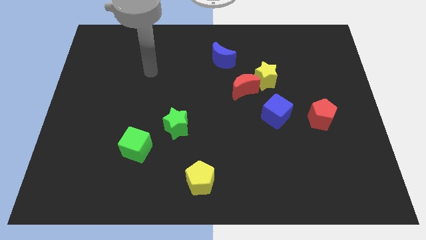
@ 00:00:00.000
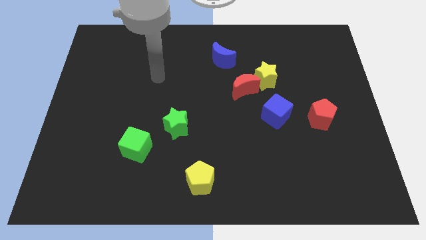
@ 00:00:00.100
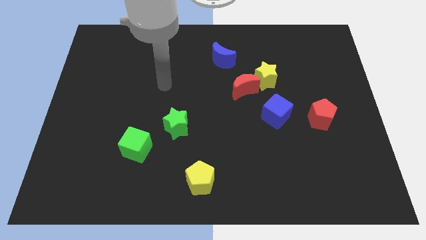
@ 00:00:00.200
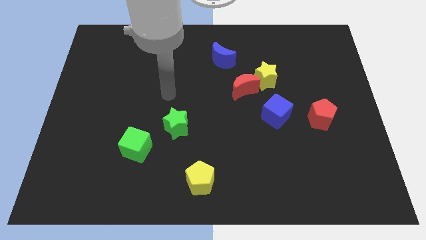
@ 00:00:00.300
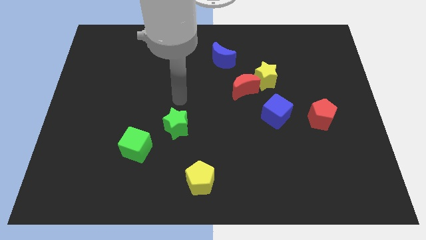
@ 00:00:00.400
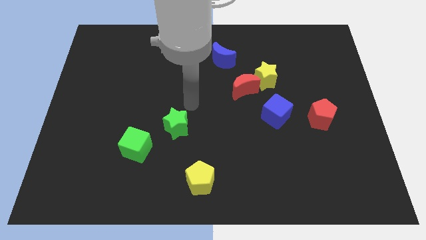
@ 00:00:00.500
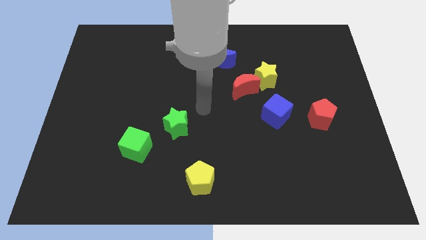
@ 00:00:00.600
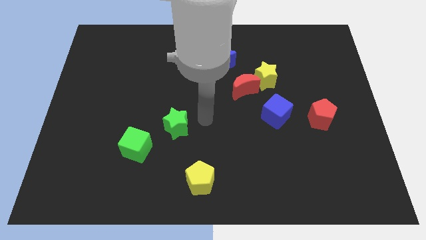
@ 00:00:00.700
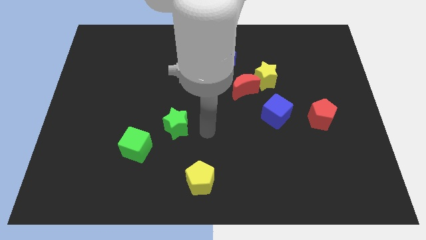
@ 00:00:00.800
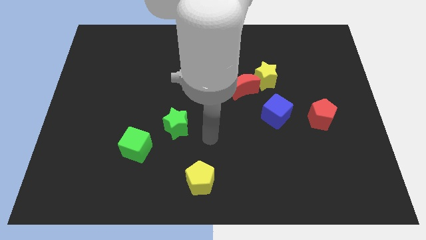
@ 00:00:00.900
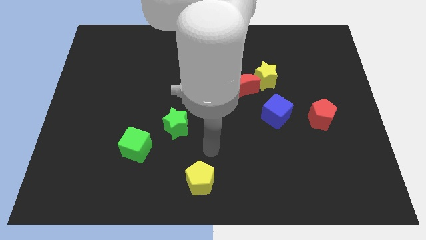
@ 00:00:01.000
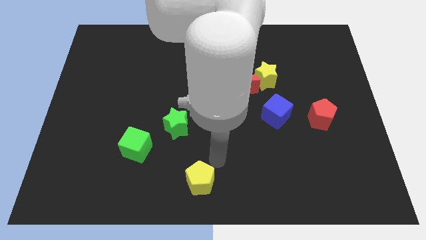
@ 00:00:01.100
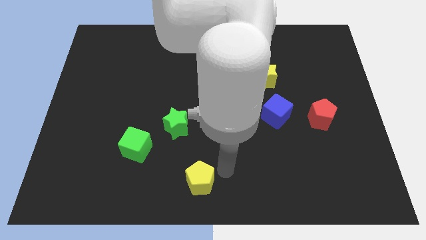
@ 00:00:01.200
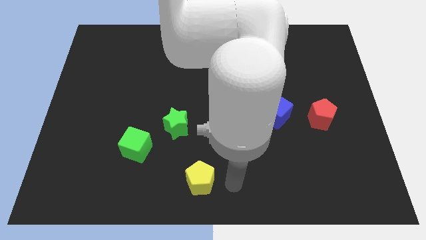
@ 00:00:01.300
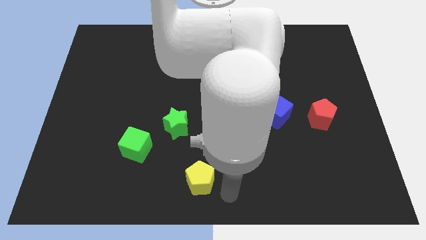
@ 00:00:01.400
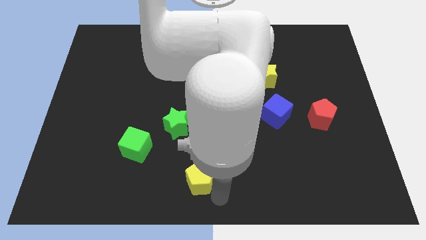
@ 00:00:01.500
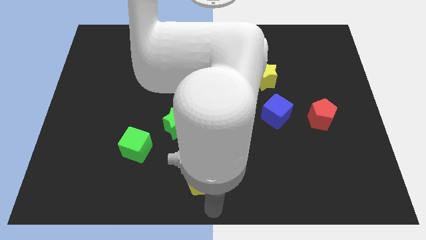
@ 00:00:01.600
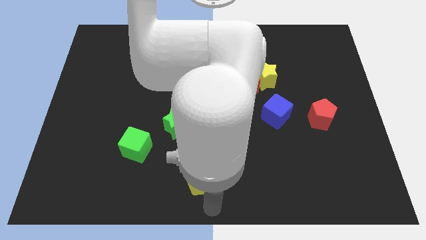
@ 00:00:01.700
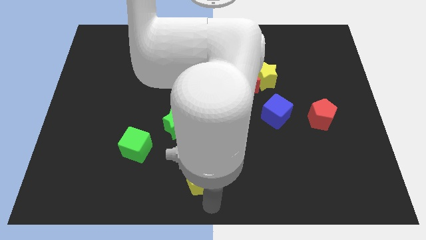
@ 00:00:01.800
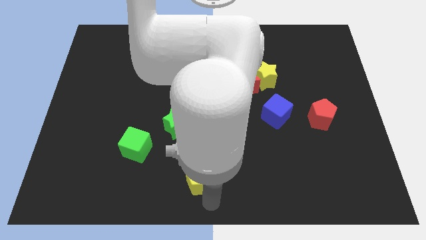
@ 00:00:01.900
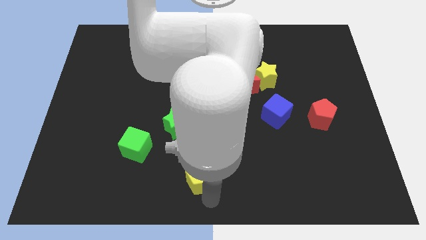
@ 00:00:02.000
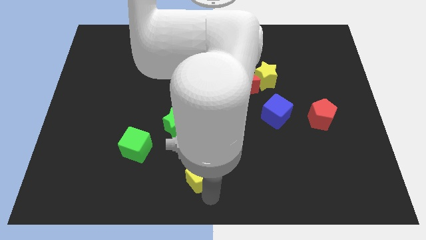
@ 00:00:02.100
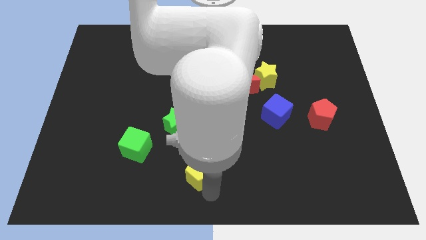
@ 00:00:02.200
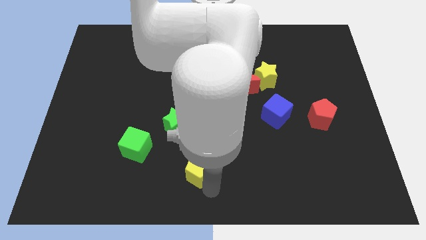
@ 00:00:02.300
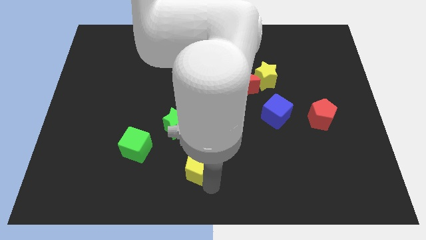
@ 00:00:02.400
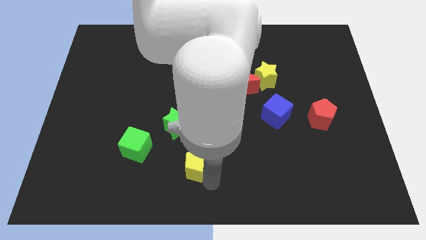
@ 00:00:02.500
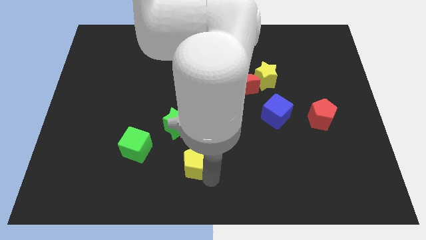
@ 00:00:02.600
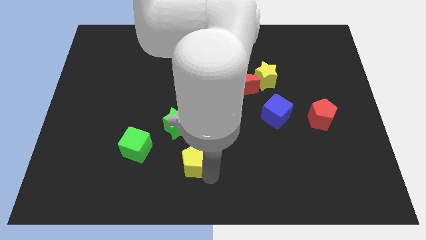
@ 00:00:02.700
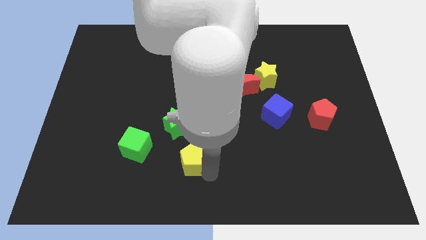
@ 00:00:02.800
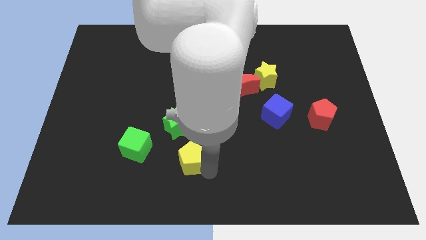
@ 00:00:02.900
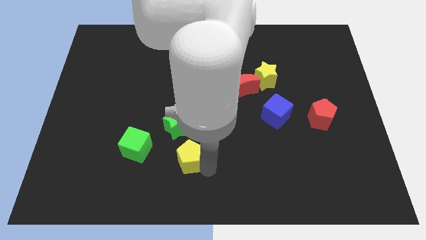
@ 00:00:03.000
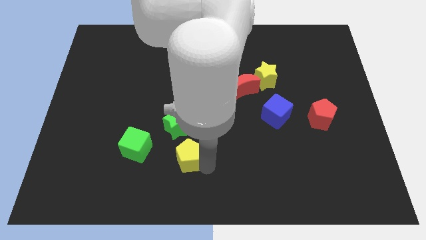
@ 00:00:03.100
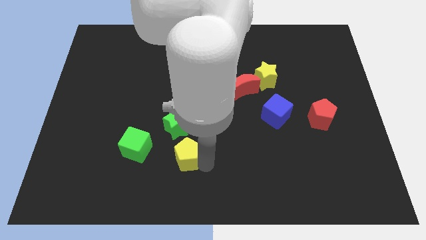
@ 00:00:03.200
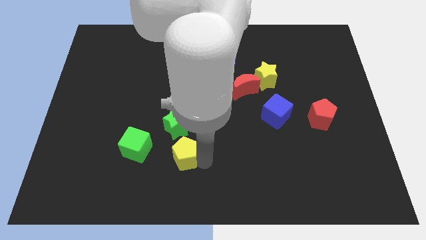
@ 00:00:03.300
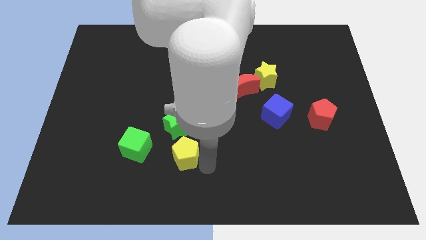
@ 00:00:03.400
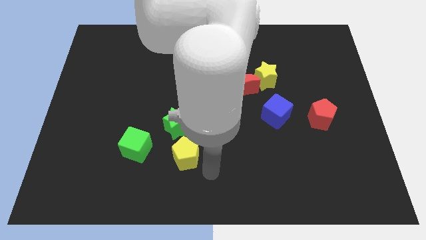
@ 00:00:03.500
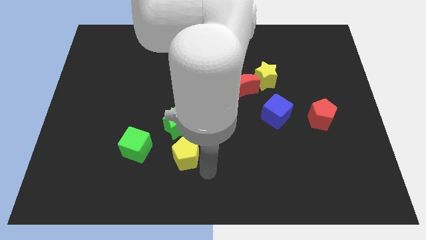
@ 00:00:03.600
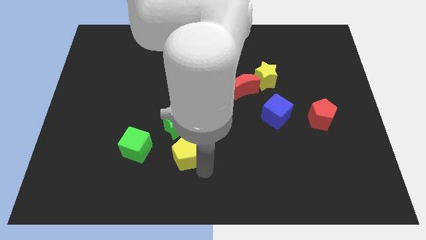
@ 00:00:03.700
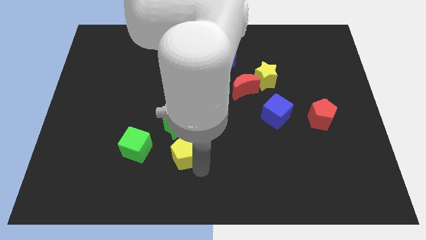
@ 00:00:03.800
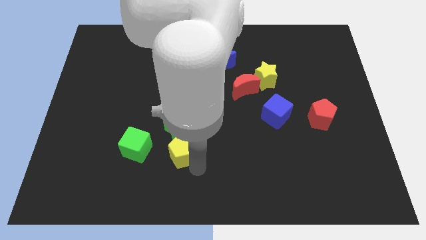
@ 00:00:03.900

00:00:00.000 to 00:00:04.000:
push the yellow pentagon diagonally upwards and left a bit

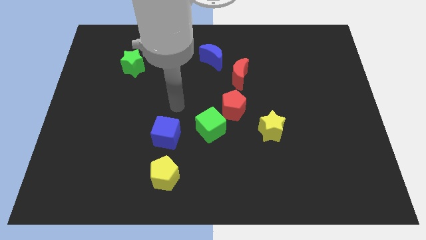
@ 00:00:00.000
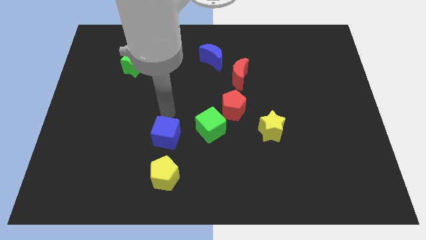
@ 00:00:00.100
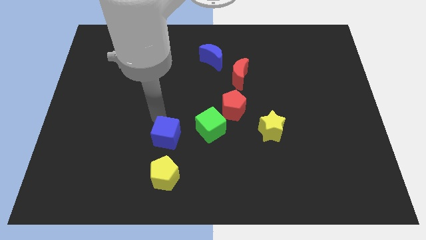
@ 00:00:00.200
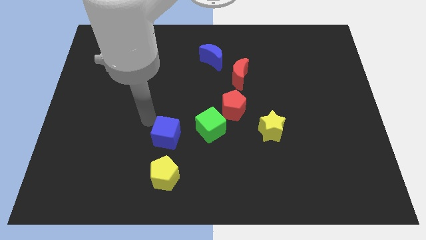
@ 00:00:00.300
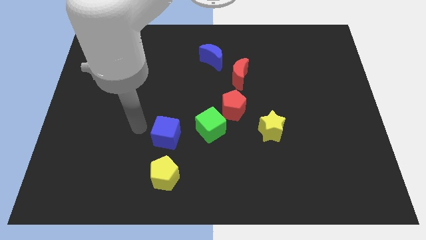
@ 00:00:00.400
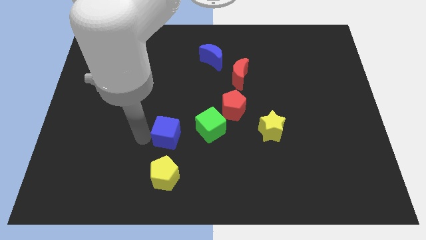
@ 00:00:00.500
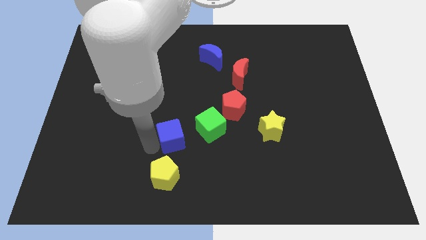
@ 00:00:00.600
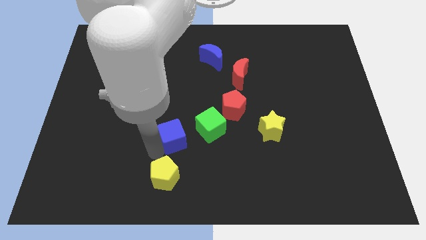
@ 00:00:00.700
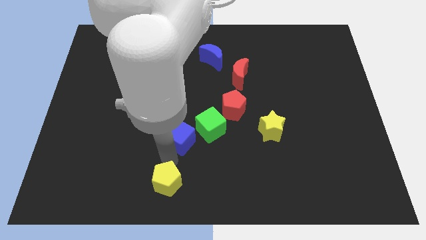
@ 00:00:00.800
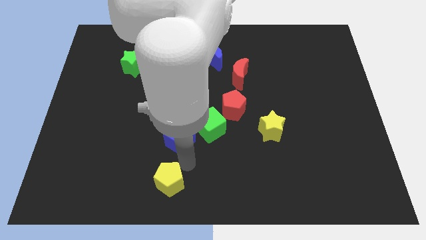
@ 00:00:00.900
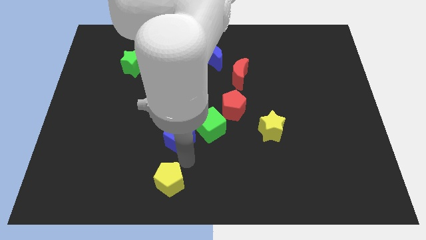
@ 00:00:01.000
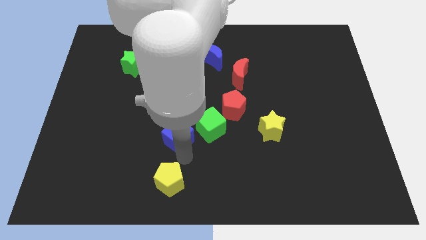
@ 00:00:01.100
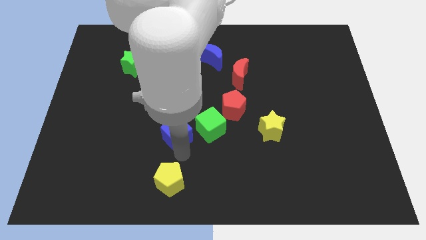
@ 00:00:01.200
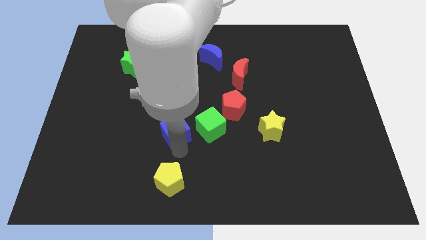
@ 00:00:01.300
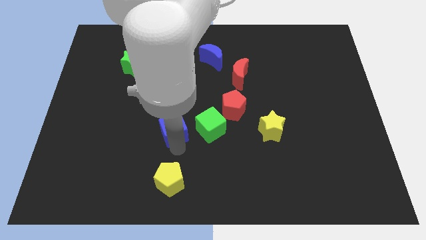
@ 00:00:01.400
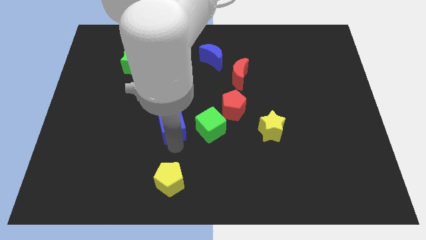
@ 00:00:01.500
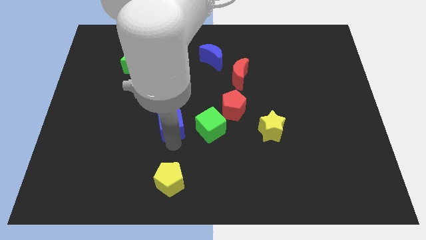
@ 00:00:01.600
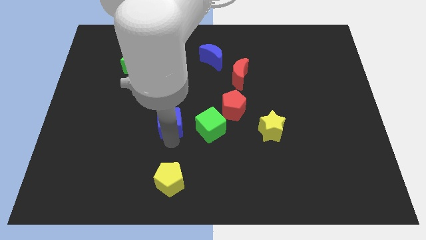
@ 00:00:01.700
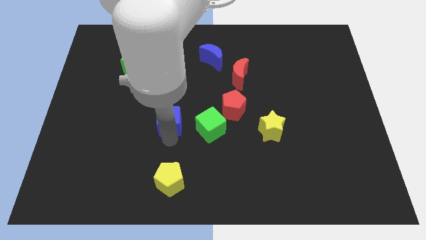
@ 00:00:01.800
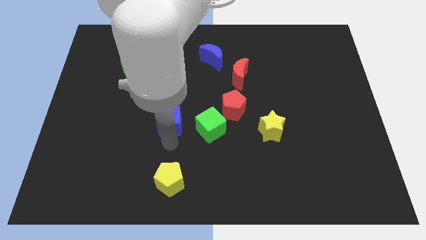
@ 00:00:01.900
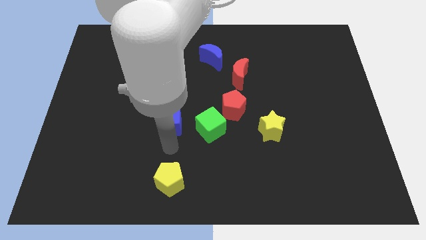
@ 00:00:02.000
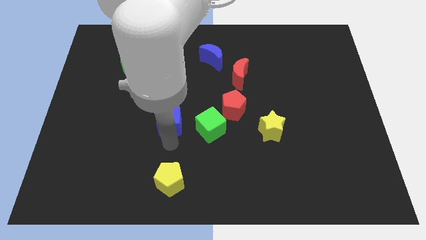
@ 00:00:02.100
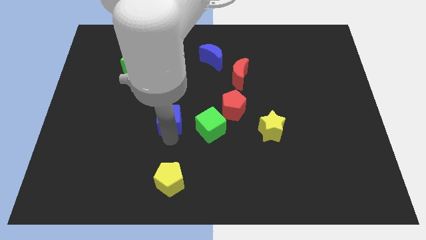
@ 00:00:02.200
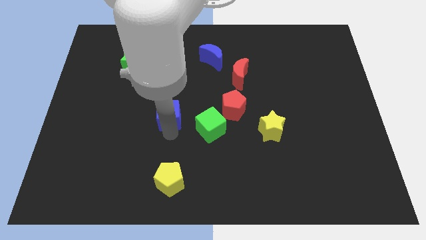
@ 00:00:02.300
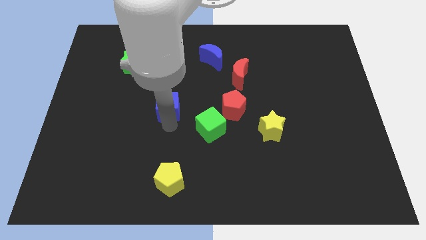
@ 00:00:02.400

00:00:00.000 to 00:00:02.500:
push the blue cube up somewhat

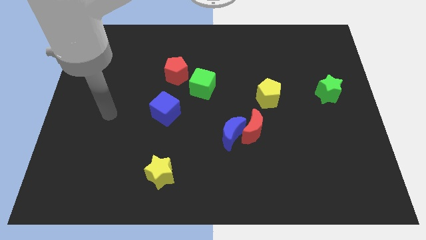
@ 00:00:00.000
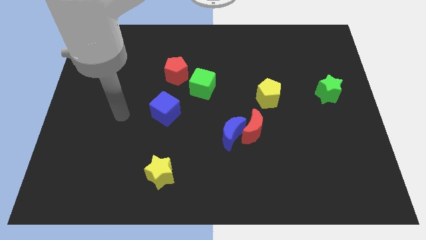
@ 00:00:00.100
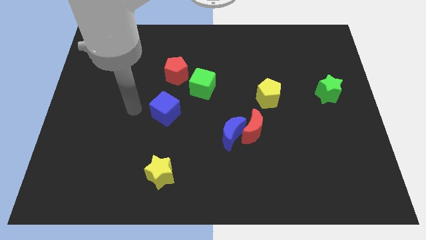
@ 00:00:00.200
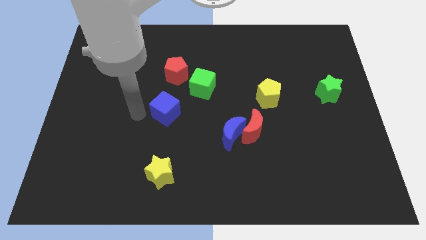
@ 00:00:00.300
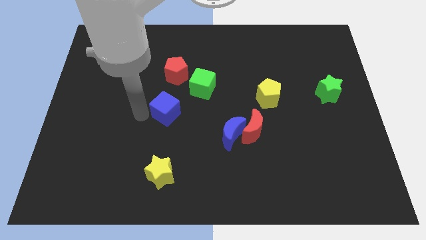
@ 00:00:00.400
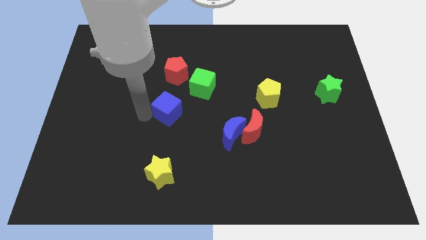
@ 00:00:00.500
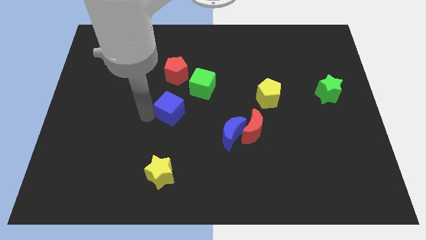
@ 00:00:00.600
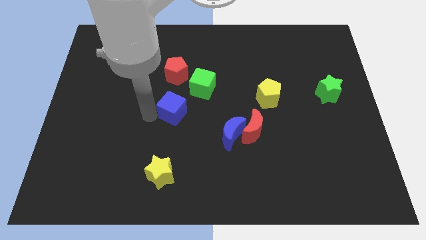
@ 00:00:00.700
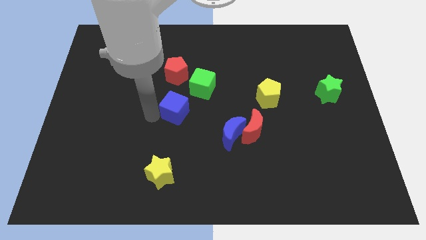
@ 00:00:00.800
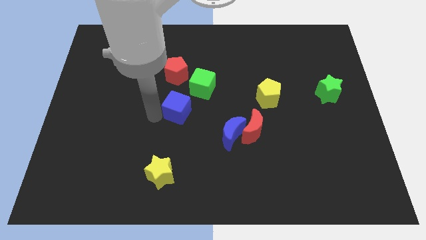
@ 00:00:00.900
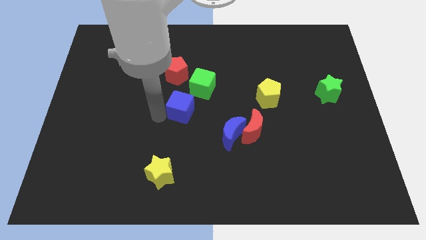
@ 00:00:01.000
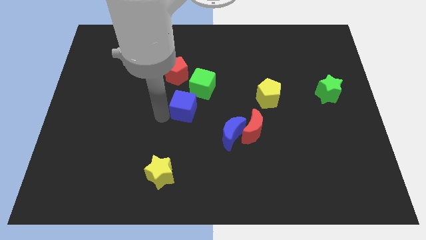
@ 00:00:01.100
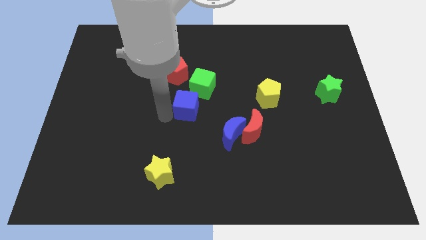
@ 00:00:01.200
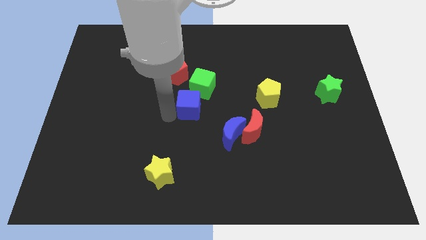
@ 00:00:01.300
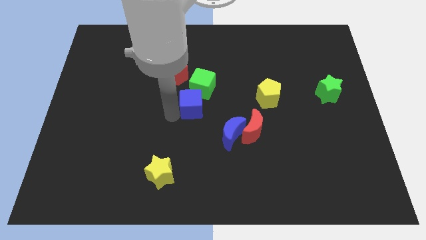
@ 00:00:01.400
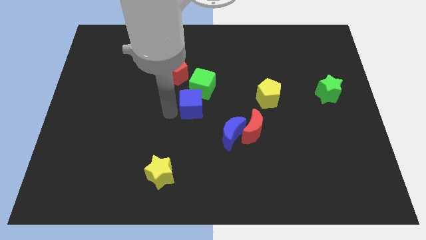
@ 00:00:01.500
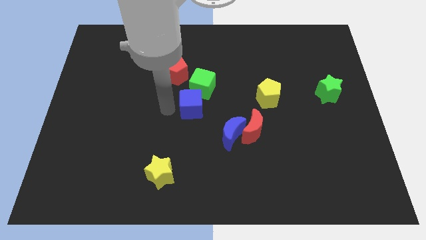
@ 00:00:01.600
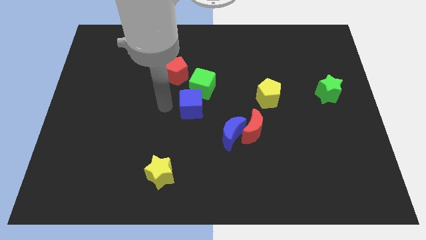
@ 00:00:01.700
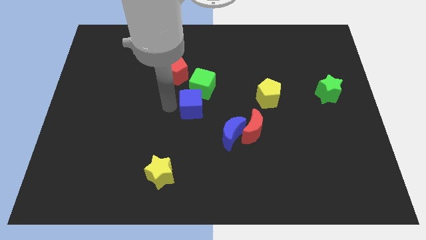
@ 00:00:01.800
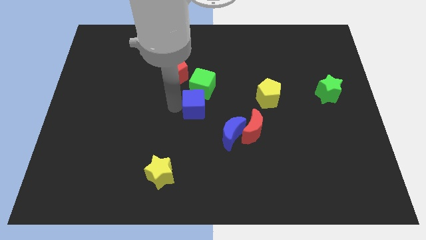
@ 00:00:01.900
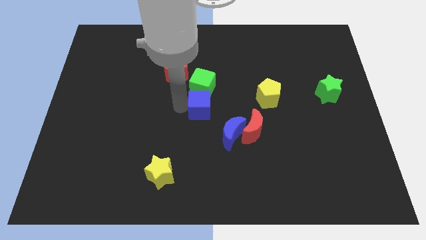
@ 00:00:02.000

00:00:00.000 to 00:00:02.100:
slide the blue cube a bit right
